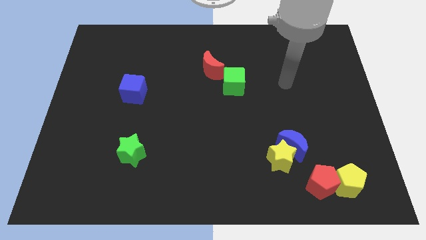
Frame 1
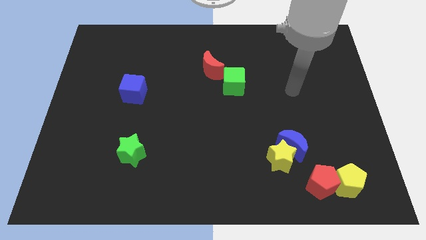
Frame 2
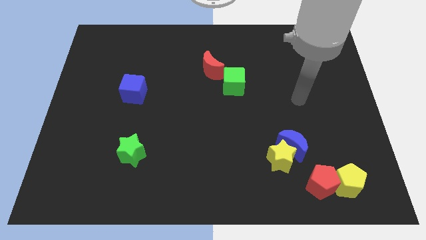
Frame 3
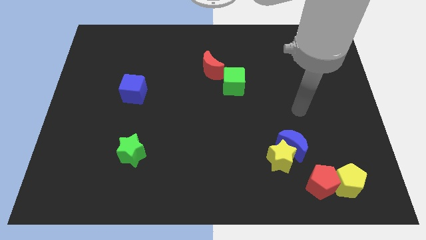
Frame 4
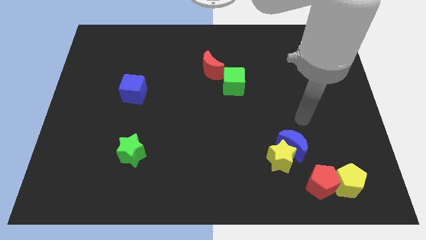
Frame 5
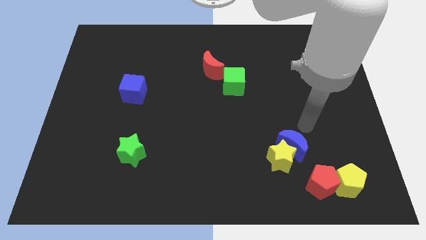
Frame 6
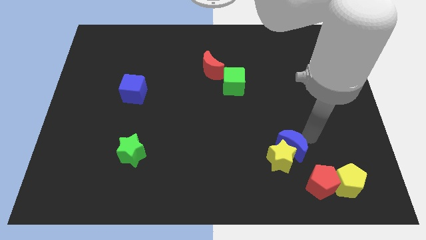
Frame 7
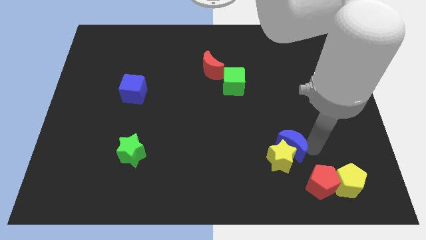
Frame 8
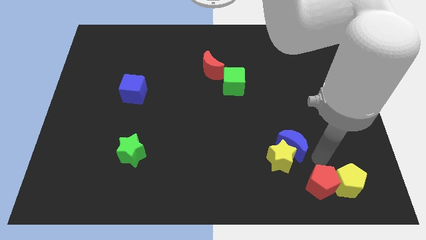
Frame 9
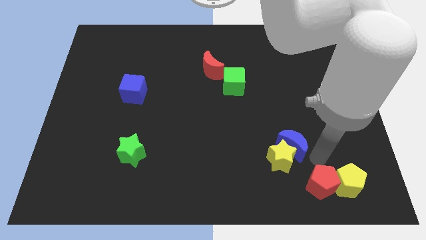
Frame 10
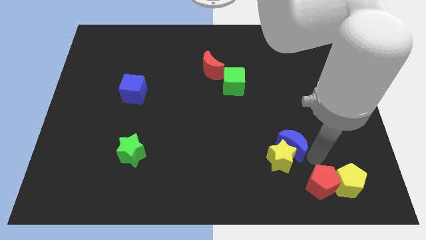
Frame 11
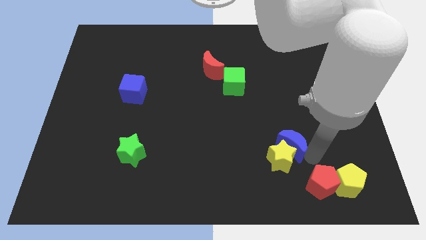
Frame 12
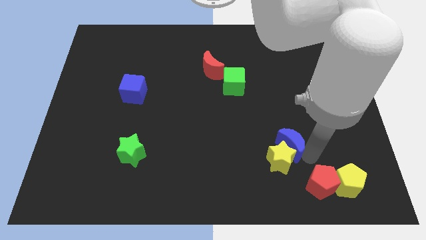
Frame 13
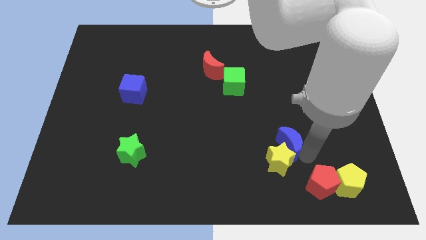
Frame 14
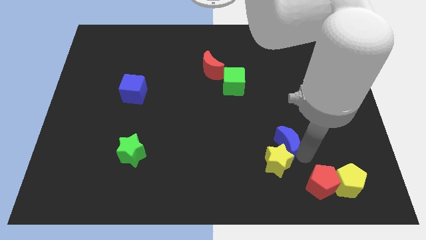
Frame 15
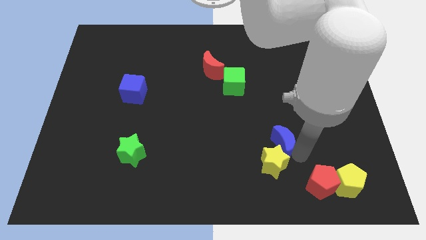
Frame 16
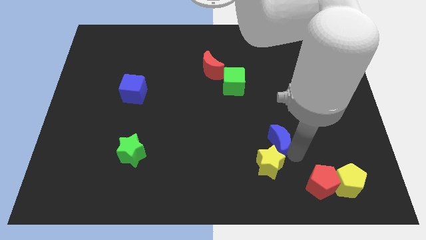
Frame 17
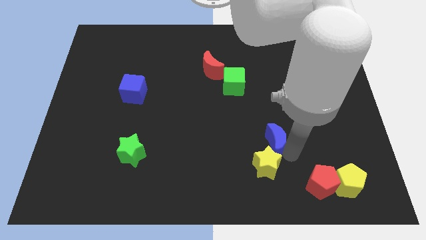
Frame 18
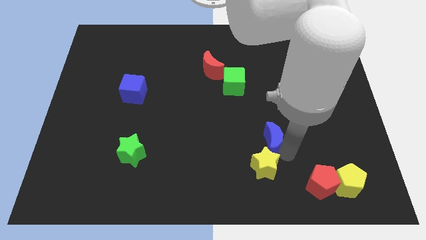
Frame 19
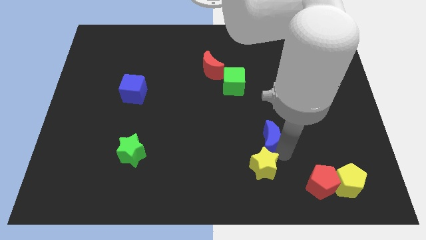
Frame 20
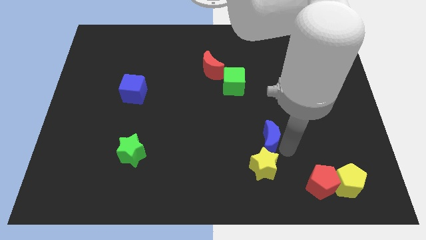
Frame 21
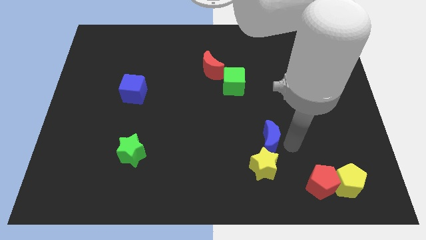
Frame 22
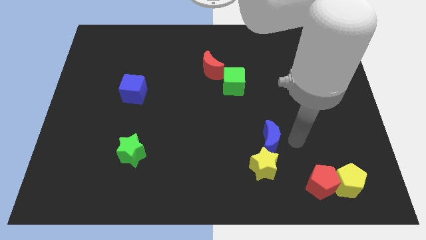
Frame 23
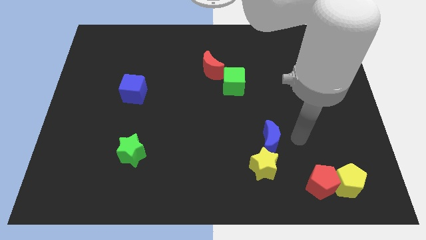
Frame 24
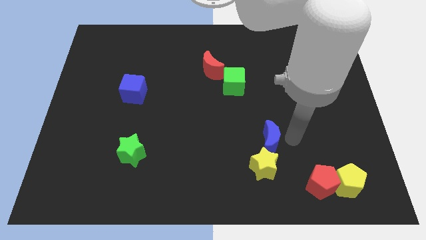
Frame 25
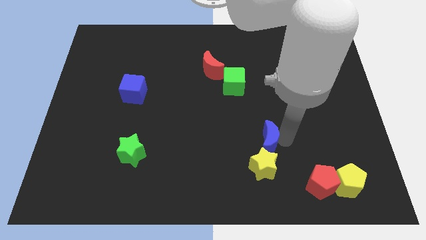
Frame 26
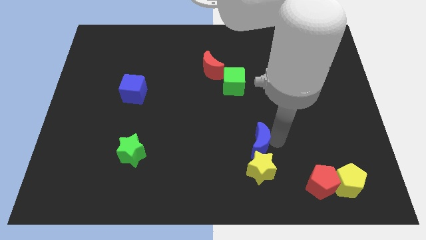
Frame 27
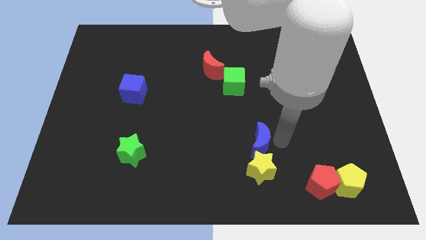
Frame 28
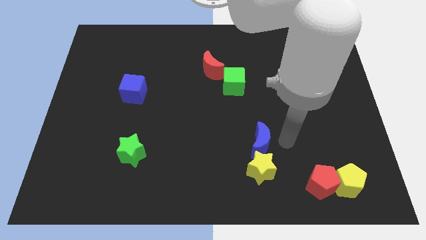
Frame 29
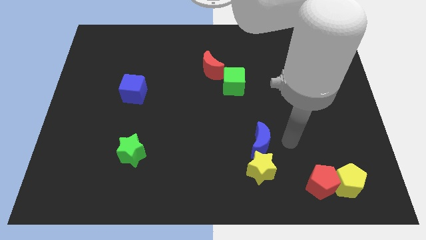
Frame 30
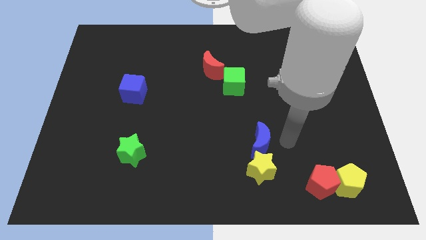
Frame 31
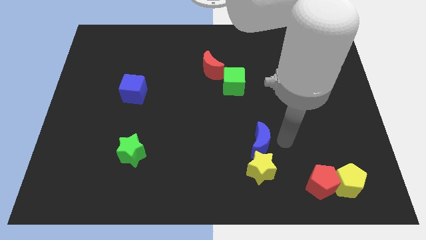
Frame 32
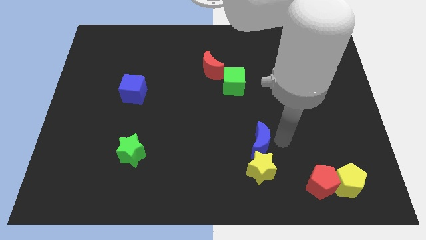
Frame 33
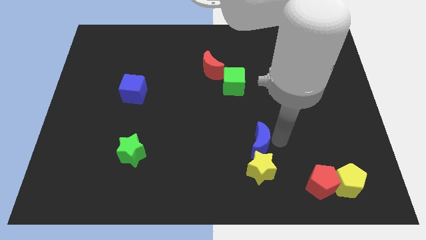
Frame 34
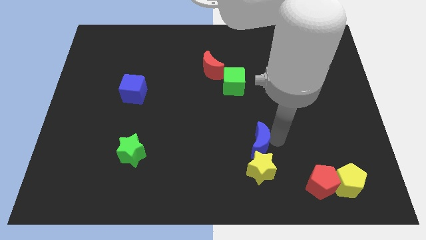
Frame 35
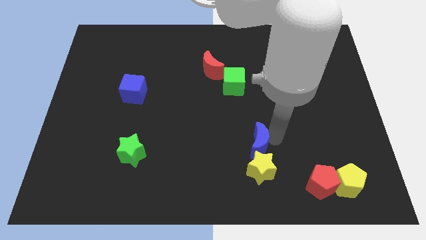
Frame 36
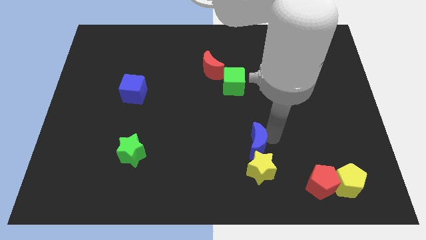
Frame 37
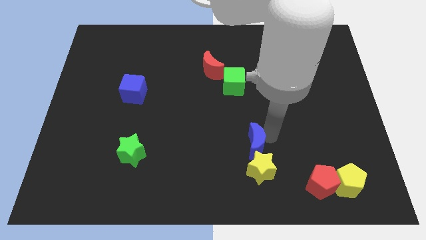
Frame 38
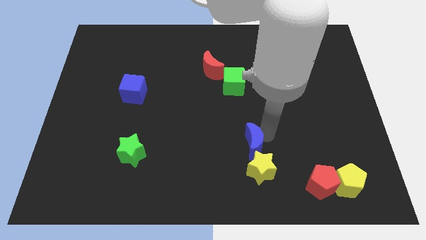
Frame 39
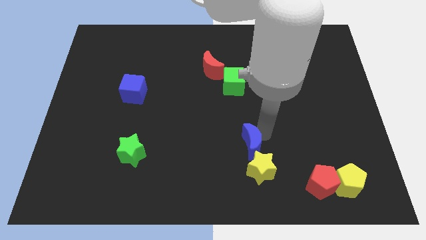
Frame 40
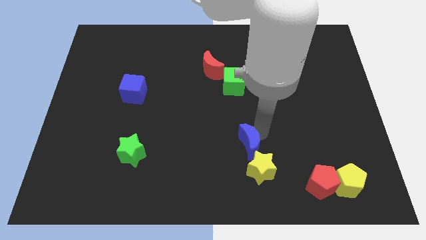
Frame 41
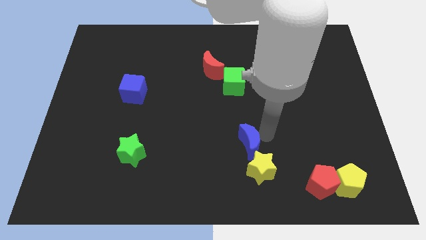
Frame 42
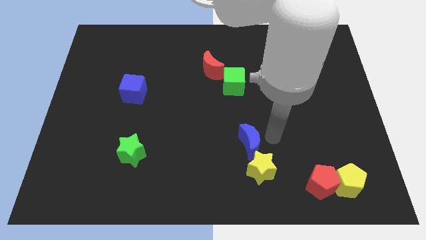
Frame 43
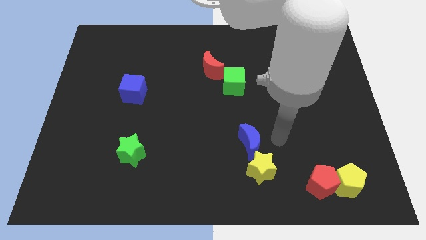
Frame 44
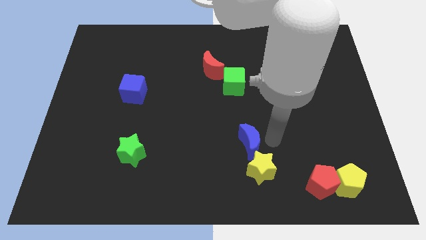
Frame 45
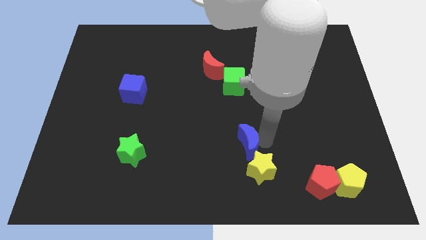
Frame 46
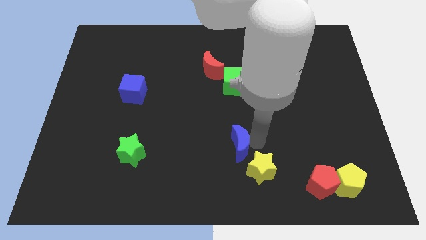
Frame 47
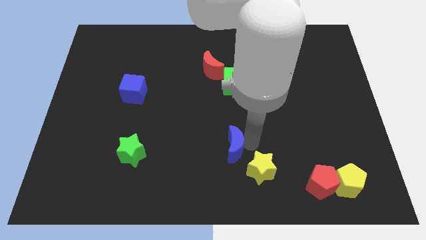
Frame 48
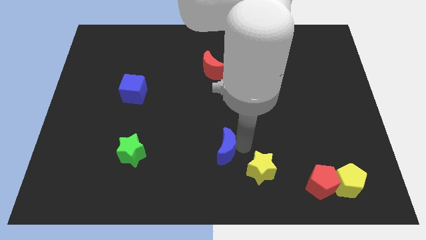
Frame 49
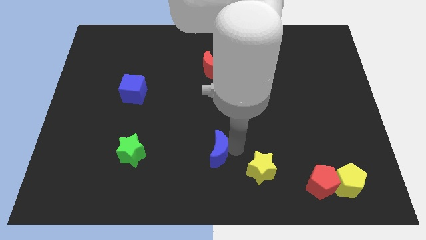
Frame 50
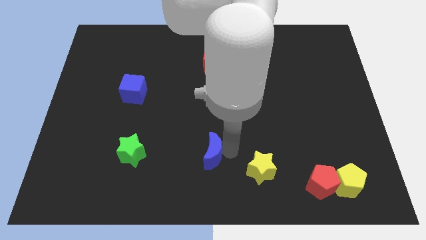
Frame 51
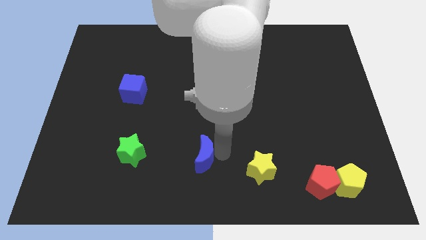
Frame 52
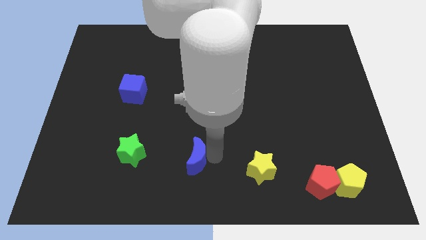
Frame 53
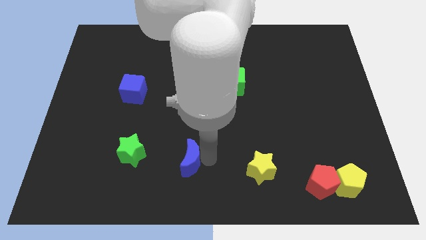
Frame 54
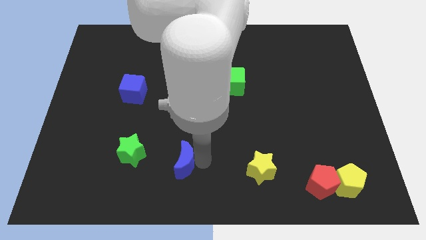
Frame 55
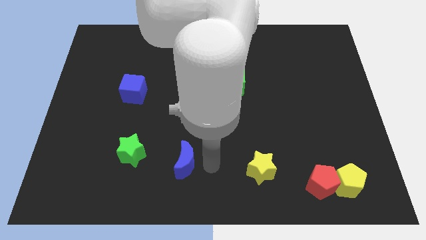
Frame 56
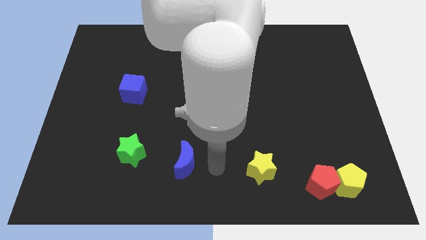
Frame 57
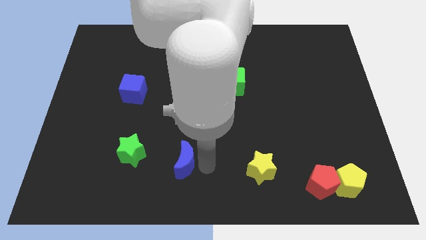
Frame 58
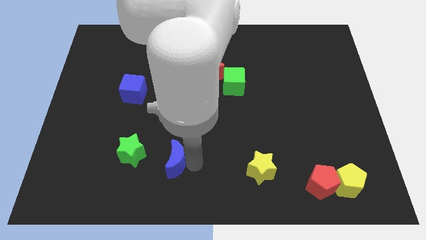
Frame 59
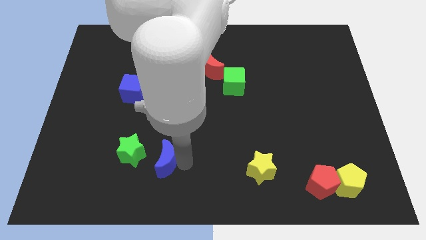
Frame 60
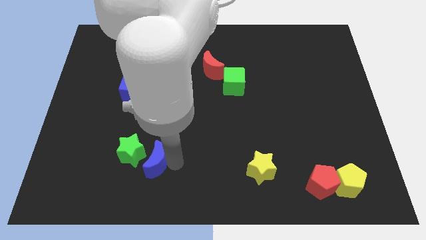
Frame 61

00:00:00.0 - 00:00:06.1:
slide the blue moon next to the green star

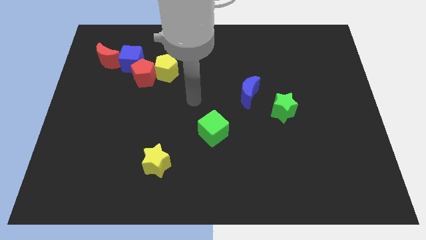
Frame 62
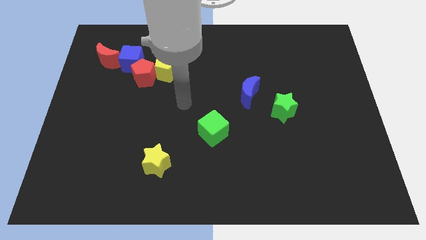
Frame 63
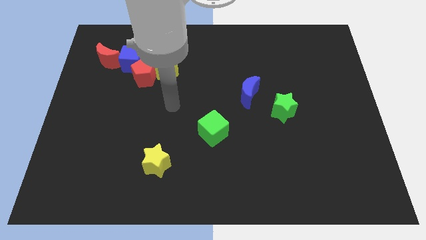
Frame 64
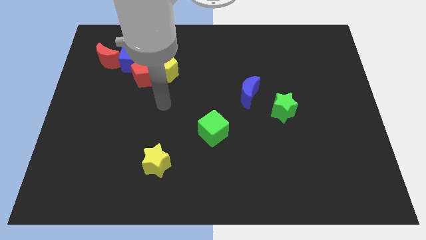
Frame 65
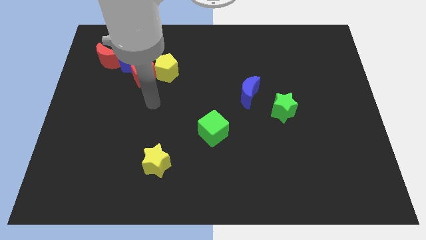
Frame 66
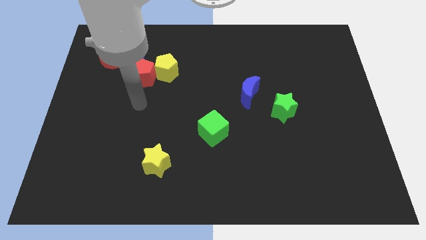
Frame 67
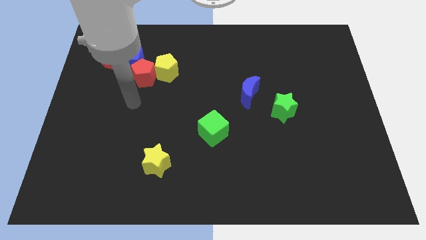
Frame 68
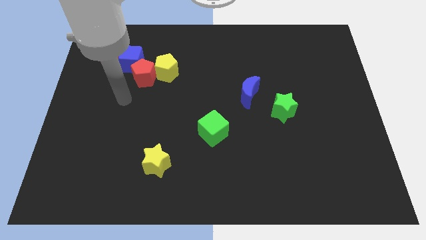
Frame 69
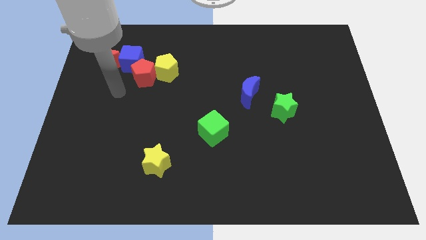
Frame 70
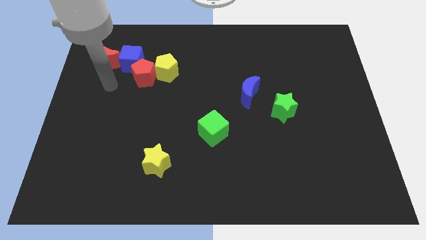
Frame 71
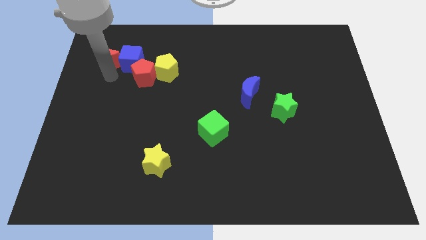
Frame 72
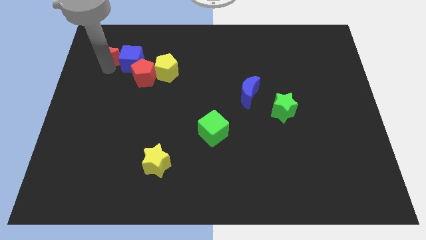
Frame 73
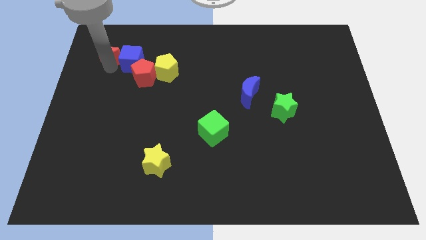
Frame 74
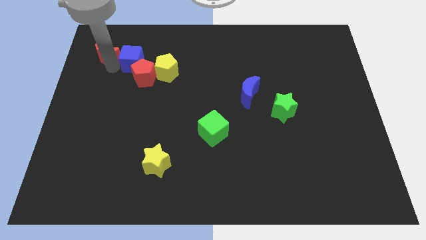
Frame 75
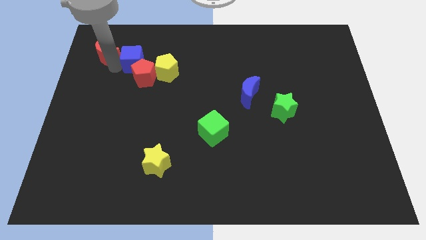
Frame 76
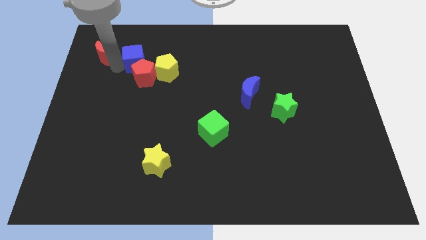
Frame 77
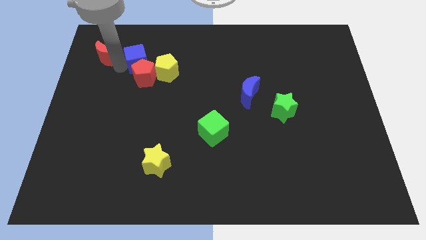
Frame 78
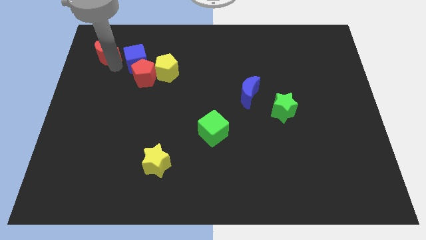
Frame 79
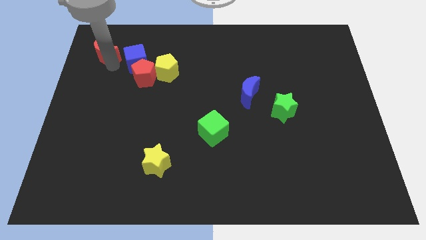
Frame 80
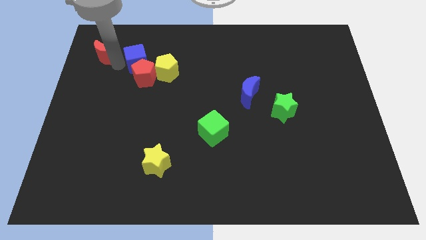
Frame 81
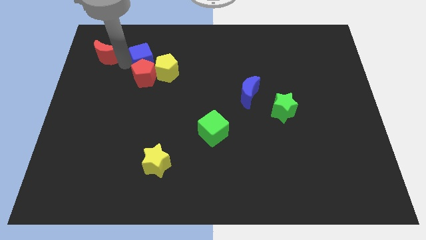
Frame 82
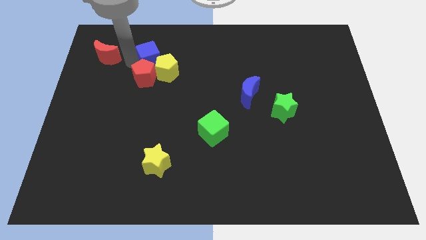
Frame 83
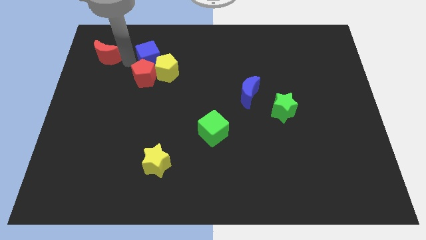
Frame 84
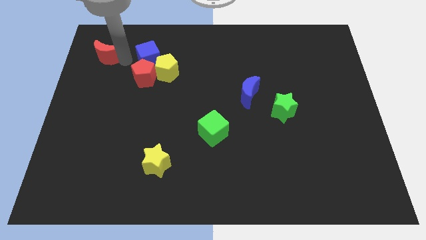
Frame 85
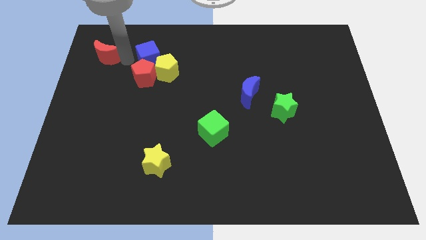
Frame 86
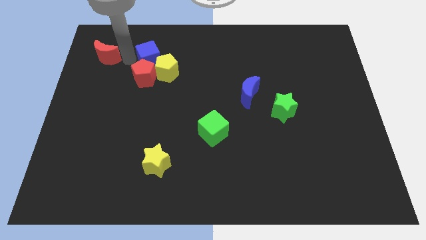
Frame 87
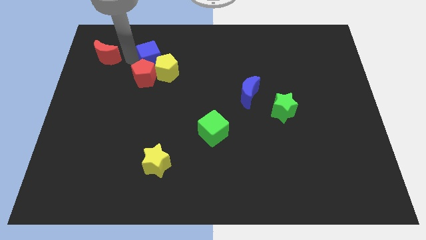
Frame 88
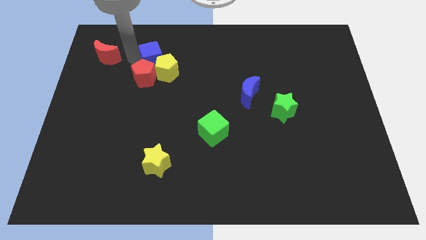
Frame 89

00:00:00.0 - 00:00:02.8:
slide the blue cube close to the yellow pentagon
